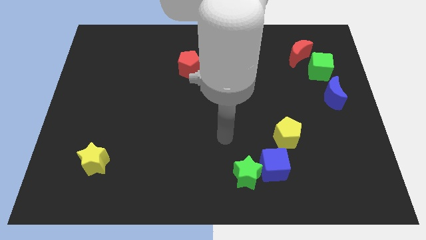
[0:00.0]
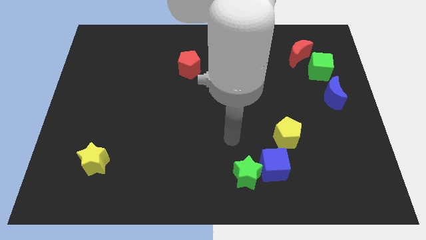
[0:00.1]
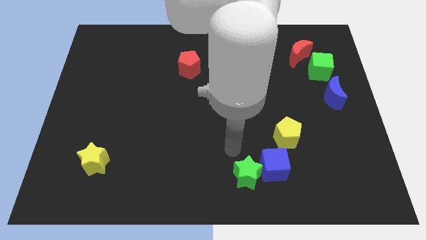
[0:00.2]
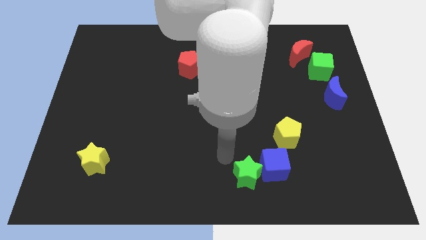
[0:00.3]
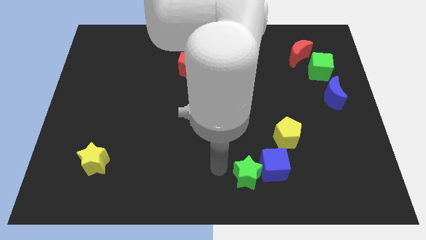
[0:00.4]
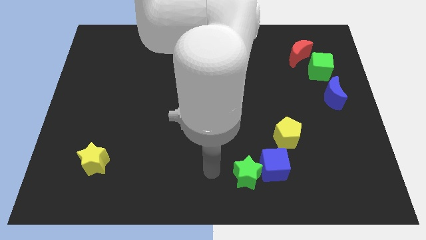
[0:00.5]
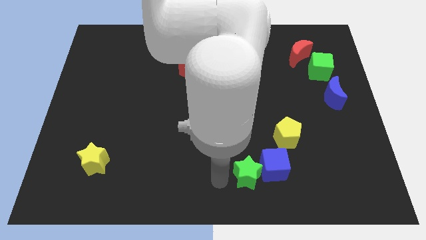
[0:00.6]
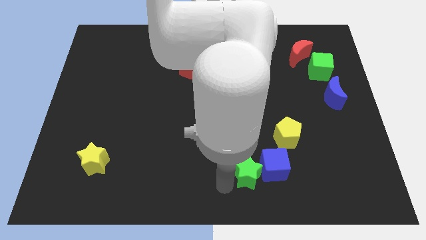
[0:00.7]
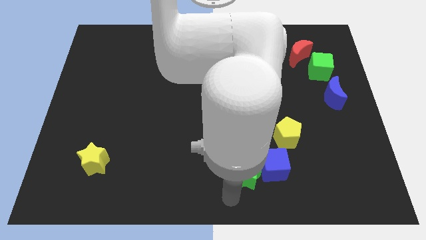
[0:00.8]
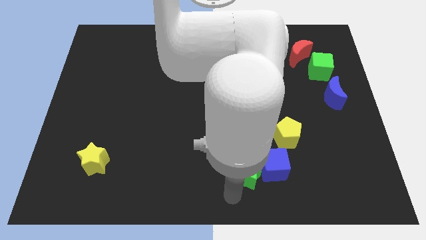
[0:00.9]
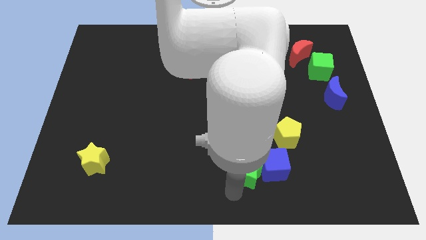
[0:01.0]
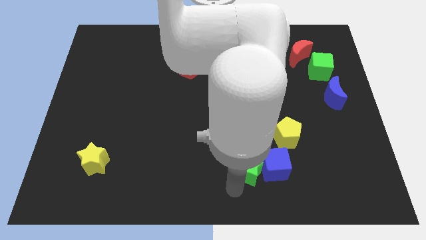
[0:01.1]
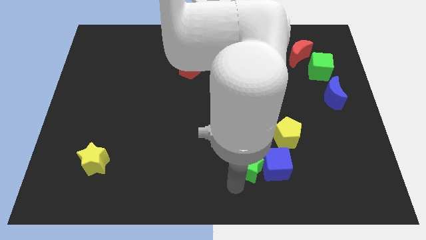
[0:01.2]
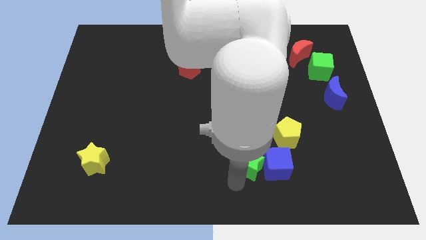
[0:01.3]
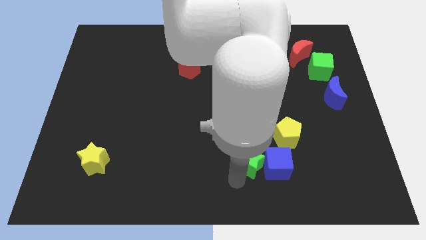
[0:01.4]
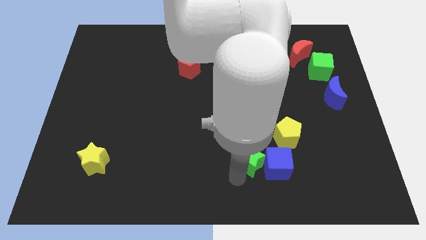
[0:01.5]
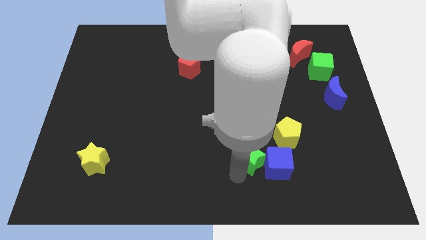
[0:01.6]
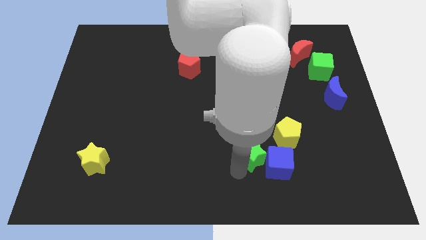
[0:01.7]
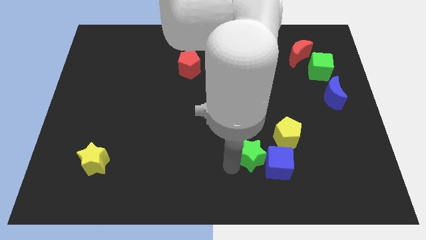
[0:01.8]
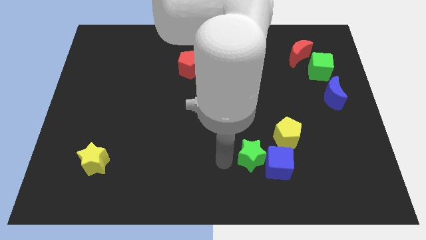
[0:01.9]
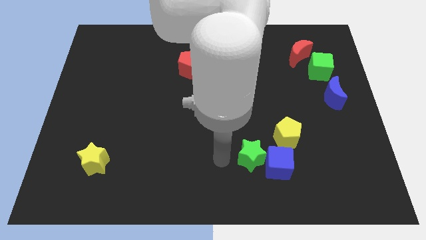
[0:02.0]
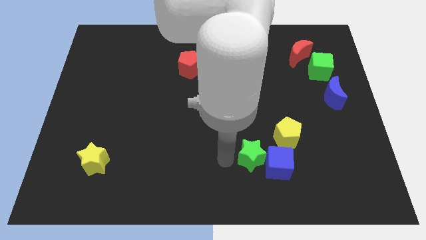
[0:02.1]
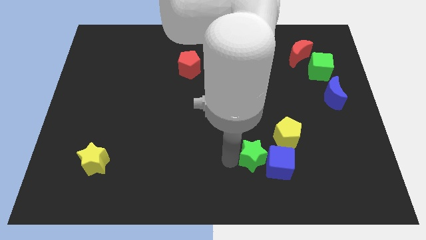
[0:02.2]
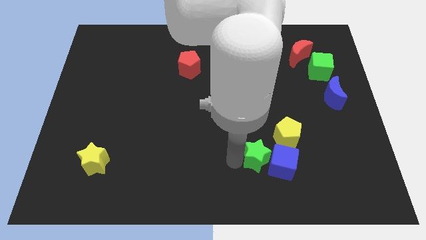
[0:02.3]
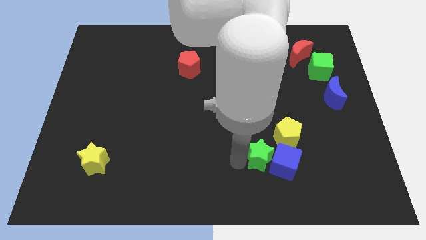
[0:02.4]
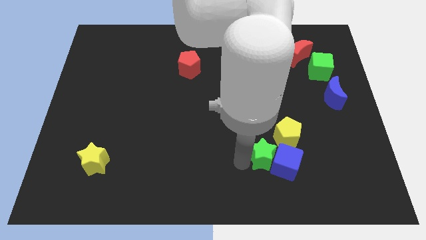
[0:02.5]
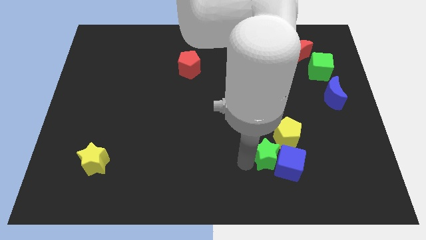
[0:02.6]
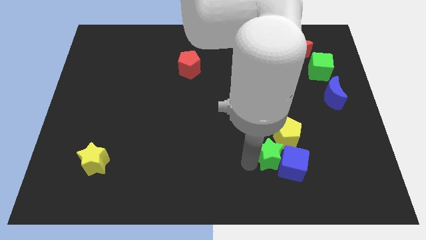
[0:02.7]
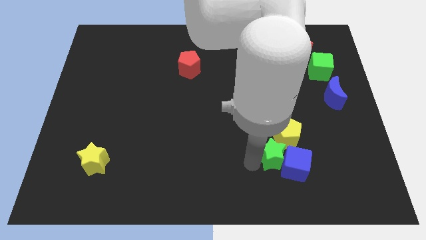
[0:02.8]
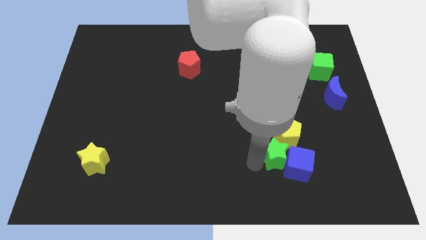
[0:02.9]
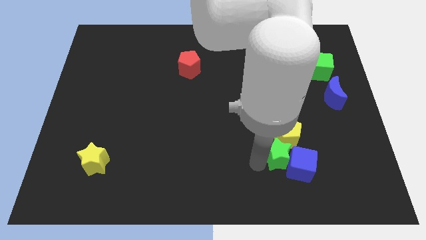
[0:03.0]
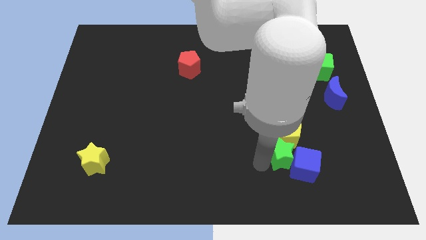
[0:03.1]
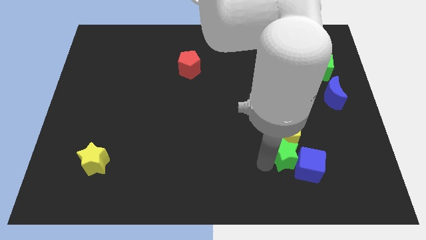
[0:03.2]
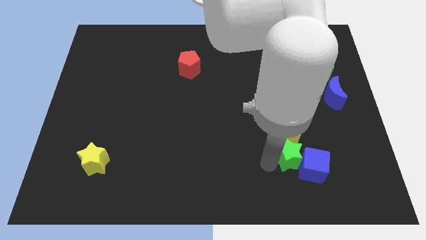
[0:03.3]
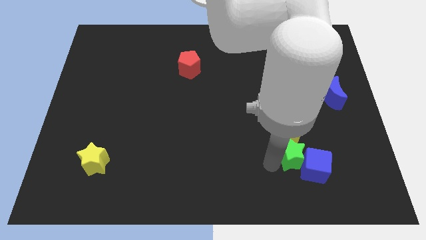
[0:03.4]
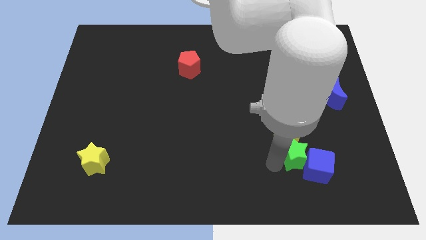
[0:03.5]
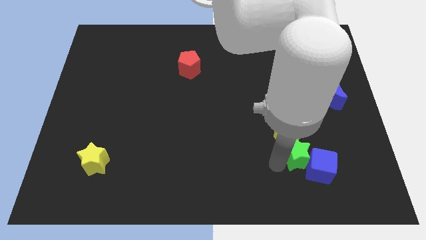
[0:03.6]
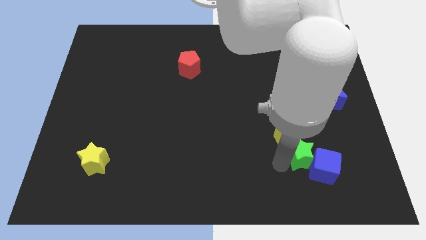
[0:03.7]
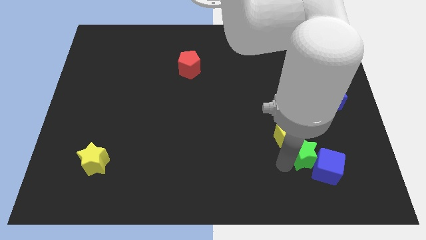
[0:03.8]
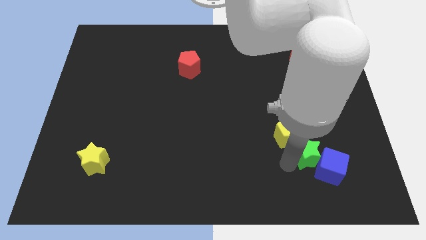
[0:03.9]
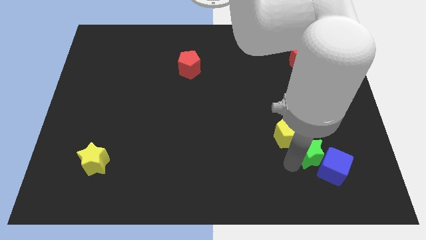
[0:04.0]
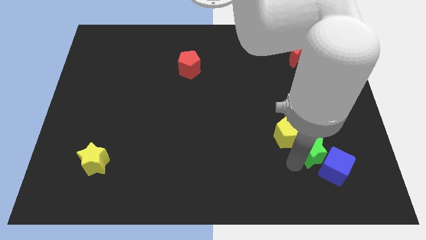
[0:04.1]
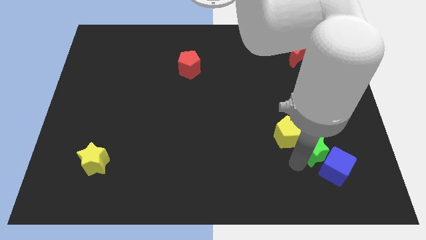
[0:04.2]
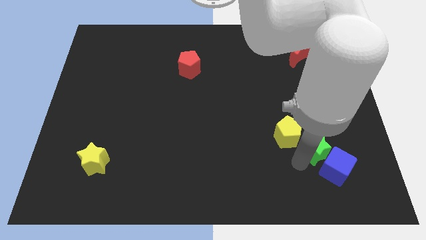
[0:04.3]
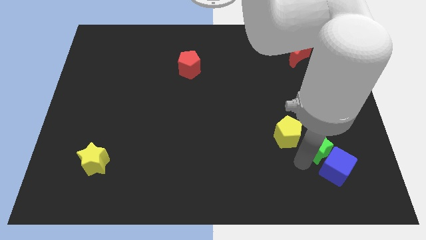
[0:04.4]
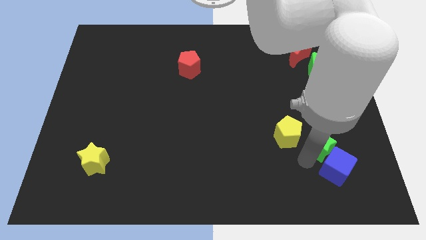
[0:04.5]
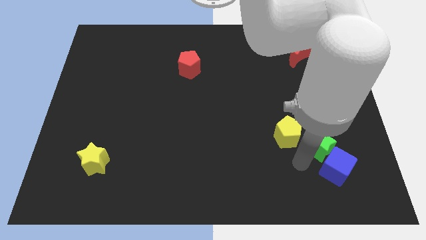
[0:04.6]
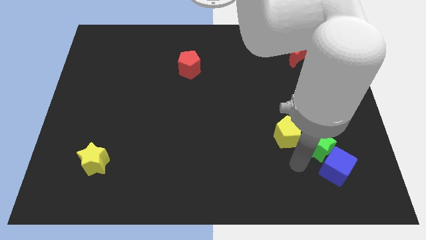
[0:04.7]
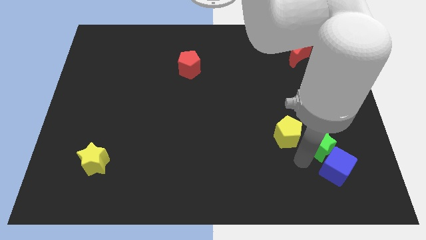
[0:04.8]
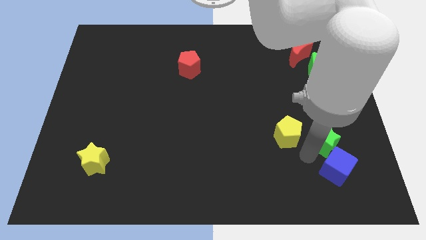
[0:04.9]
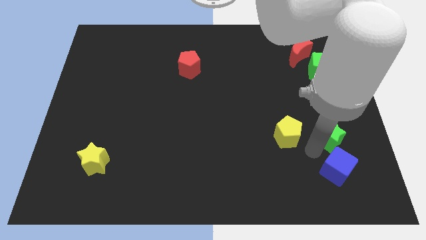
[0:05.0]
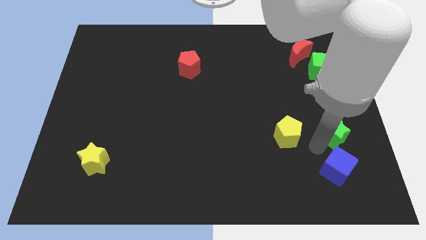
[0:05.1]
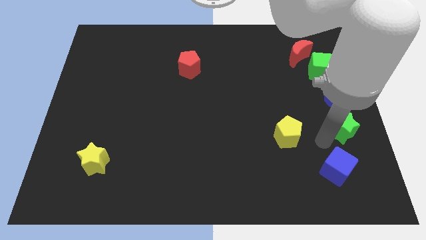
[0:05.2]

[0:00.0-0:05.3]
push the green star to the right side

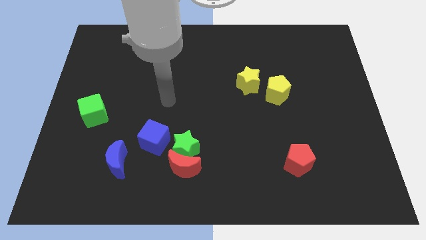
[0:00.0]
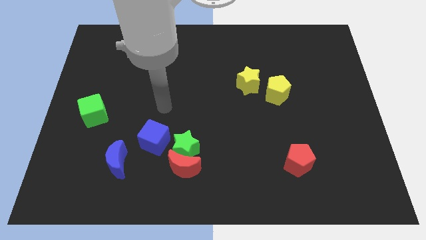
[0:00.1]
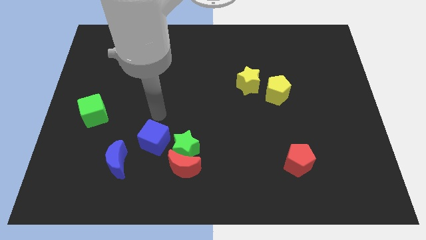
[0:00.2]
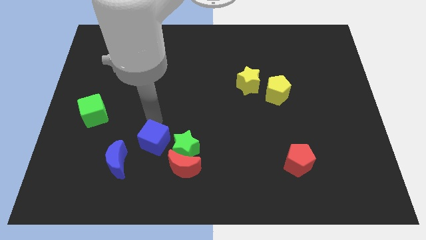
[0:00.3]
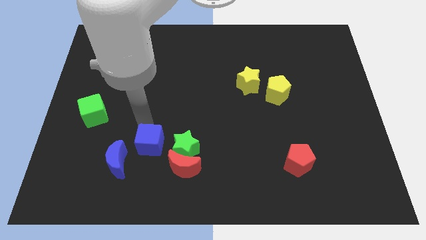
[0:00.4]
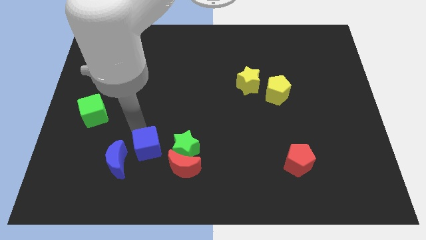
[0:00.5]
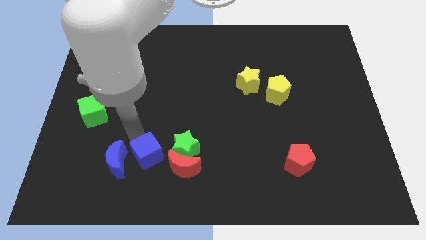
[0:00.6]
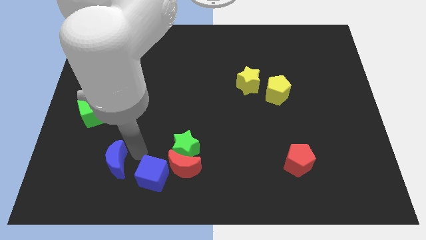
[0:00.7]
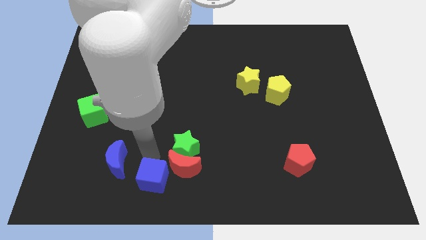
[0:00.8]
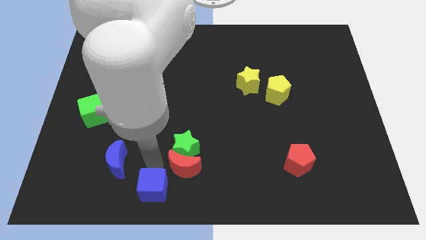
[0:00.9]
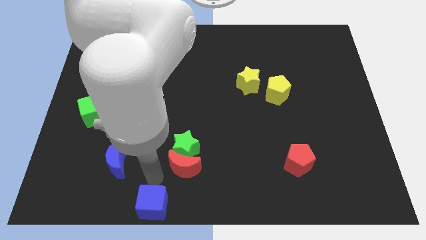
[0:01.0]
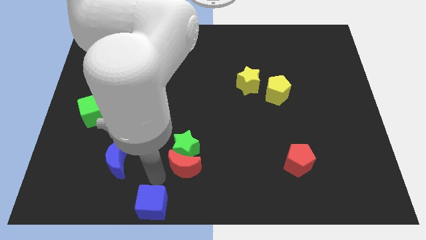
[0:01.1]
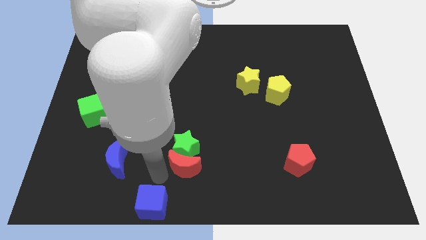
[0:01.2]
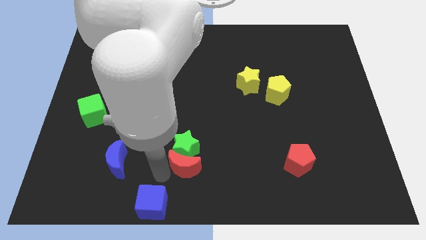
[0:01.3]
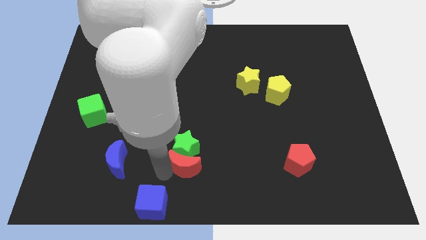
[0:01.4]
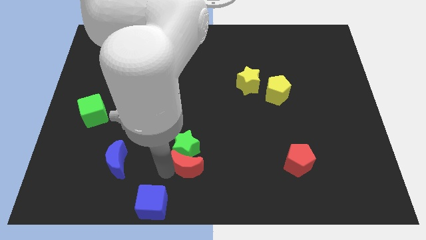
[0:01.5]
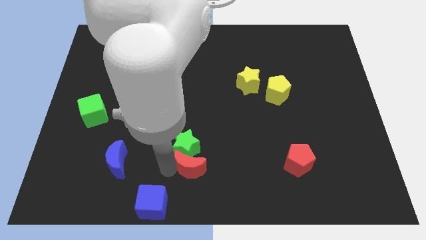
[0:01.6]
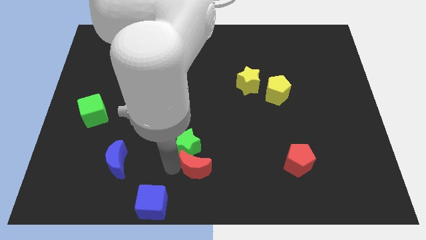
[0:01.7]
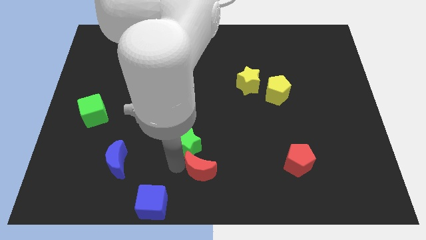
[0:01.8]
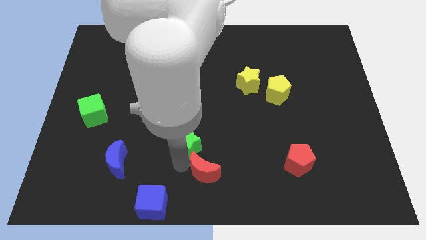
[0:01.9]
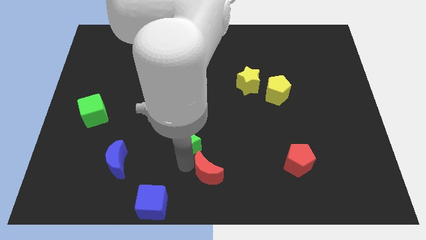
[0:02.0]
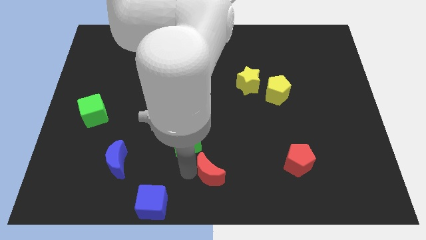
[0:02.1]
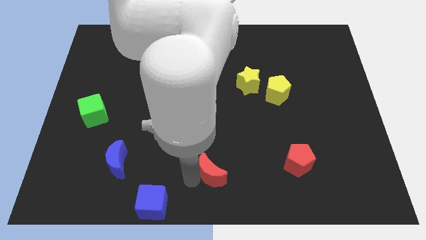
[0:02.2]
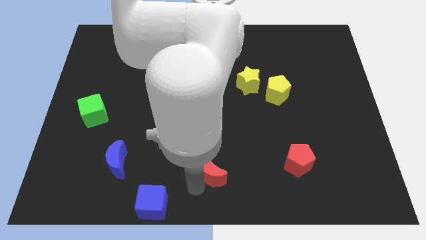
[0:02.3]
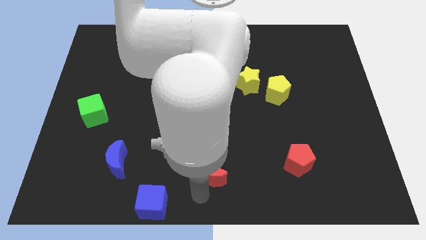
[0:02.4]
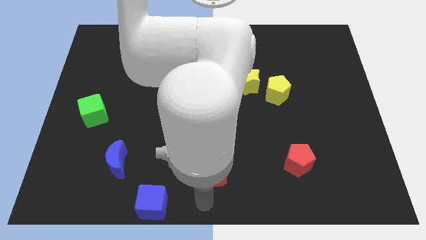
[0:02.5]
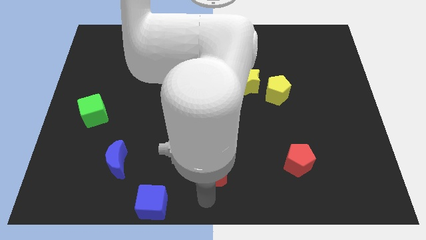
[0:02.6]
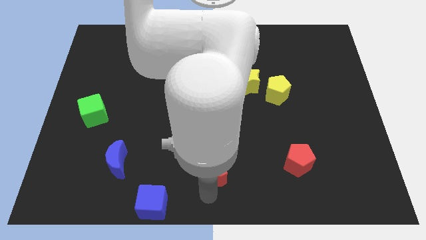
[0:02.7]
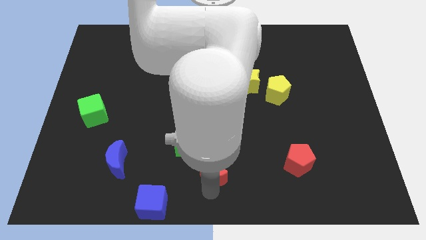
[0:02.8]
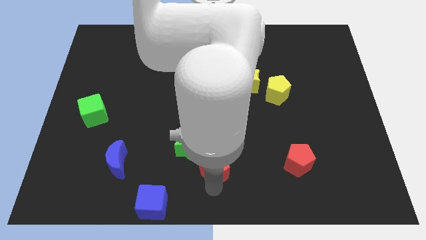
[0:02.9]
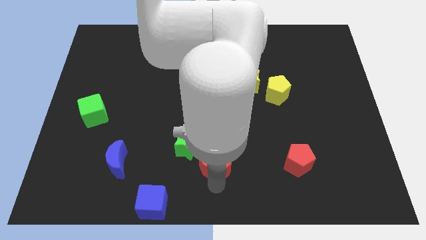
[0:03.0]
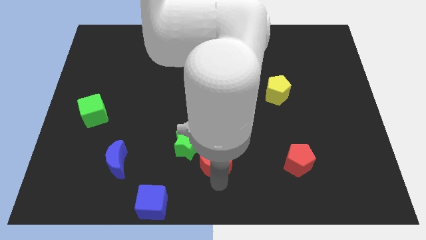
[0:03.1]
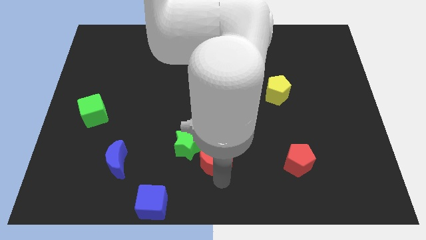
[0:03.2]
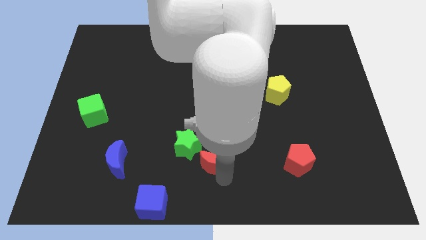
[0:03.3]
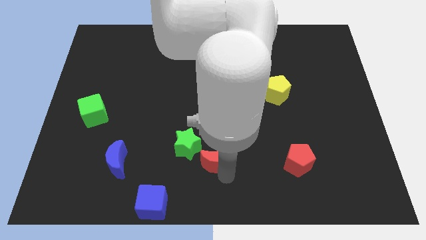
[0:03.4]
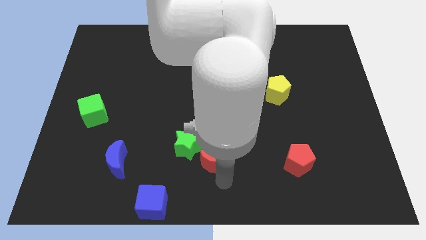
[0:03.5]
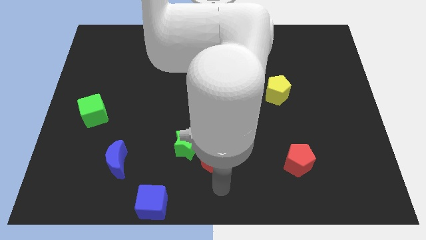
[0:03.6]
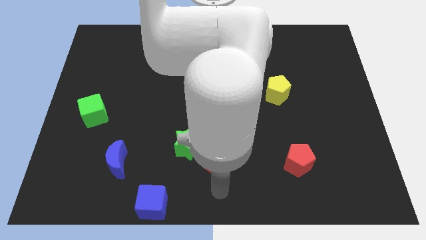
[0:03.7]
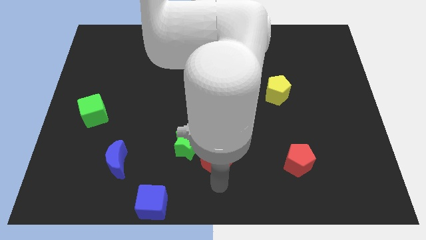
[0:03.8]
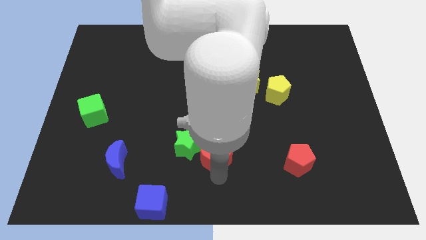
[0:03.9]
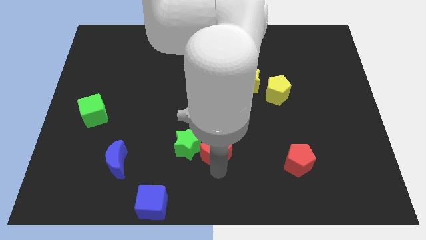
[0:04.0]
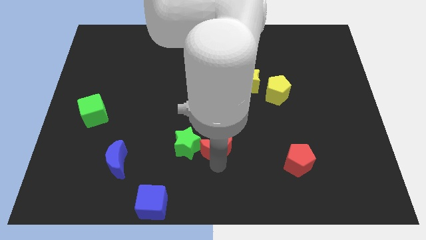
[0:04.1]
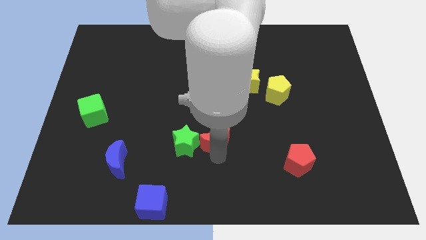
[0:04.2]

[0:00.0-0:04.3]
slide the red moon to the middle of the board
